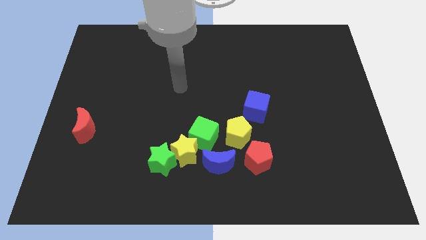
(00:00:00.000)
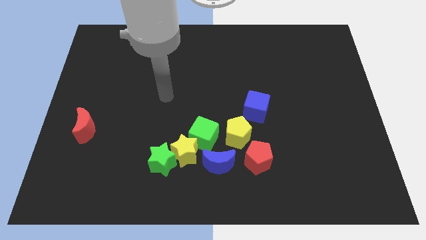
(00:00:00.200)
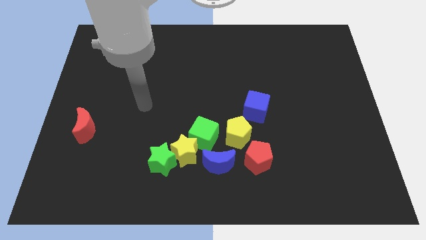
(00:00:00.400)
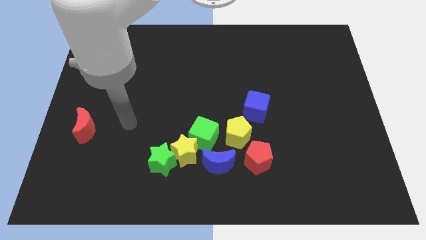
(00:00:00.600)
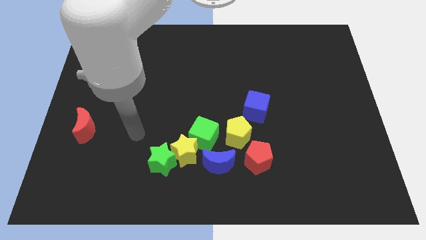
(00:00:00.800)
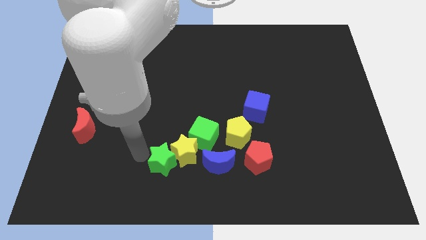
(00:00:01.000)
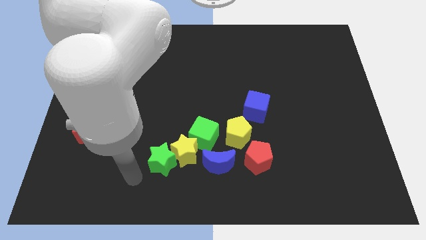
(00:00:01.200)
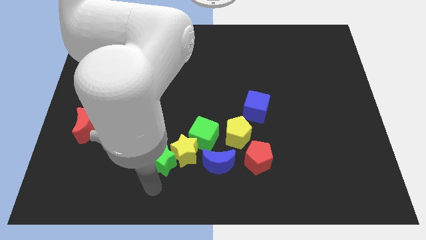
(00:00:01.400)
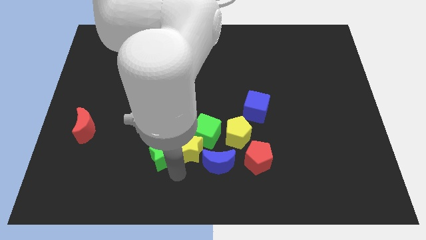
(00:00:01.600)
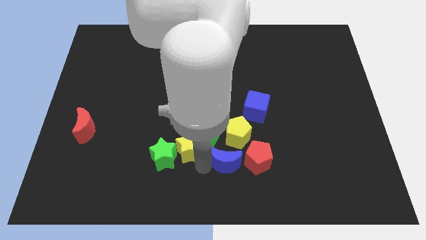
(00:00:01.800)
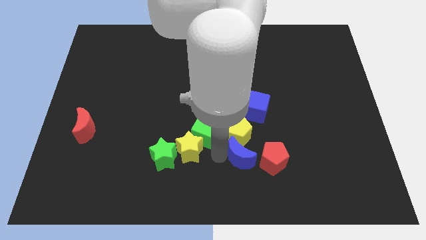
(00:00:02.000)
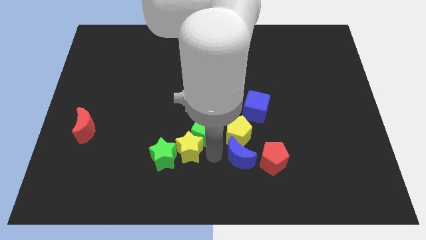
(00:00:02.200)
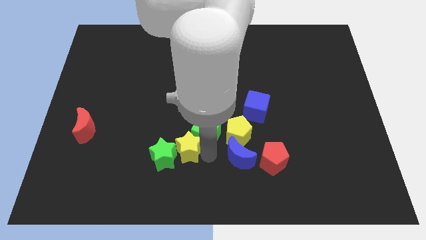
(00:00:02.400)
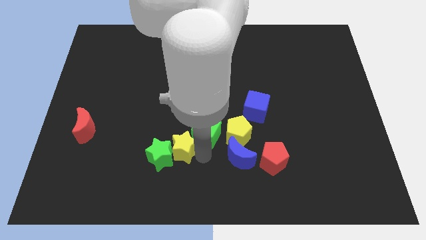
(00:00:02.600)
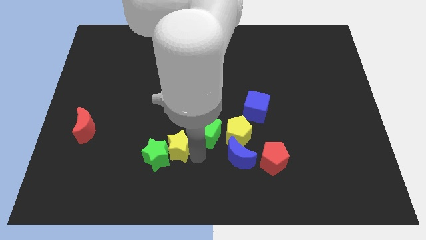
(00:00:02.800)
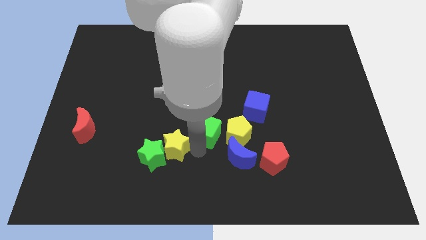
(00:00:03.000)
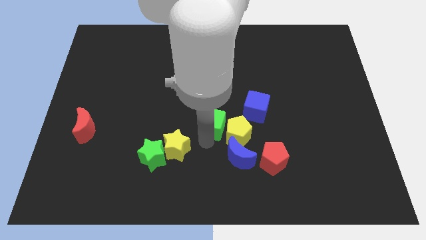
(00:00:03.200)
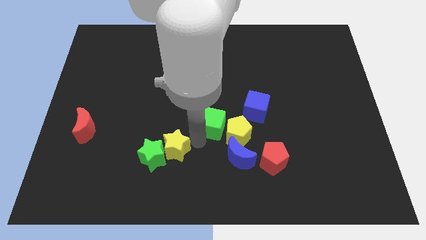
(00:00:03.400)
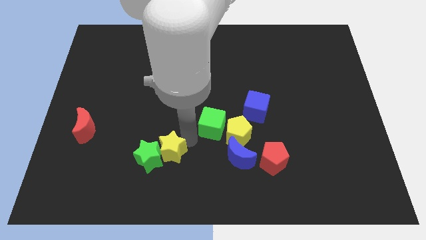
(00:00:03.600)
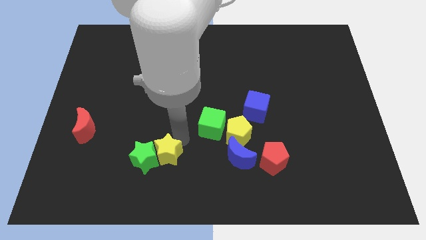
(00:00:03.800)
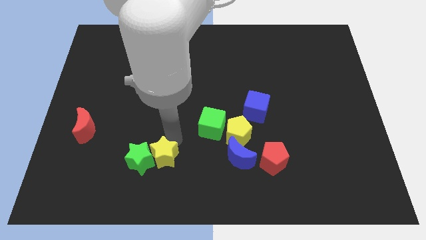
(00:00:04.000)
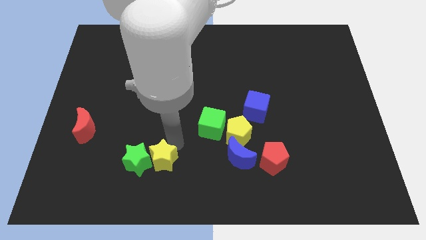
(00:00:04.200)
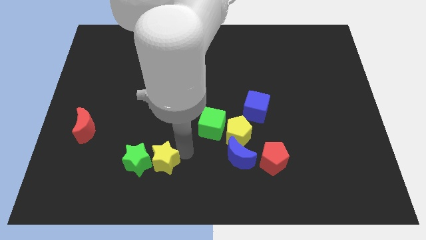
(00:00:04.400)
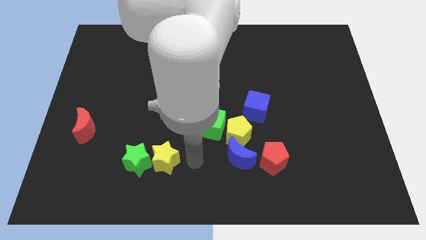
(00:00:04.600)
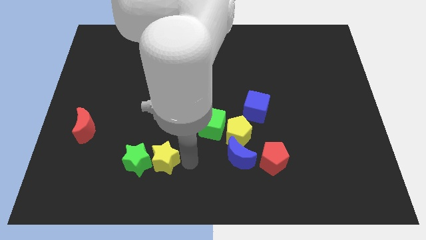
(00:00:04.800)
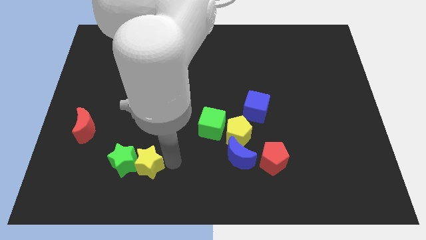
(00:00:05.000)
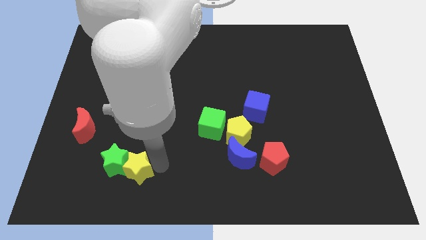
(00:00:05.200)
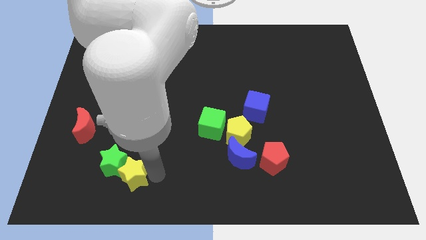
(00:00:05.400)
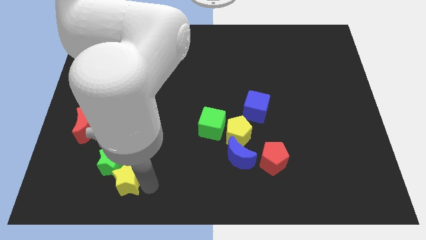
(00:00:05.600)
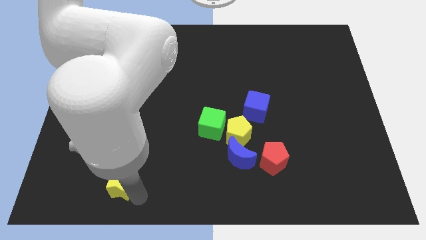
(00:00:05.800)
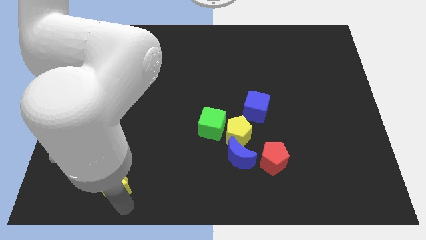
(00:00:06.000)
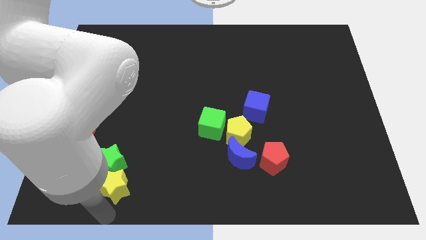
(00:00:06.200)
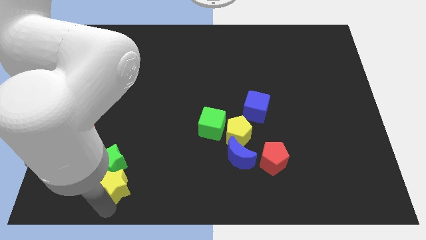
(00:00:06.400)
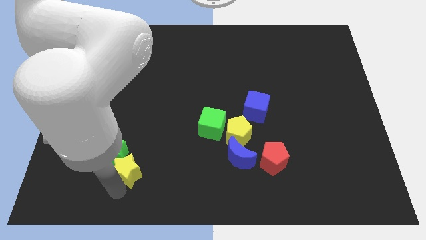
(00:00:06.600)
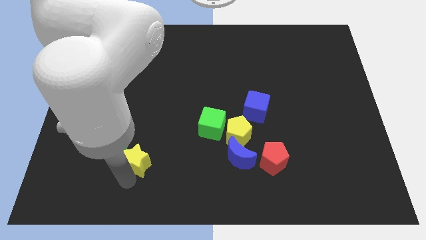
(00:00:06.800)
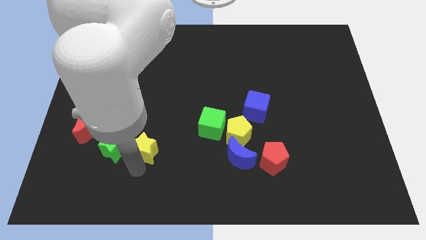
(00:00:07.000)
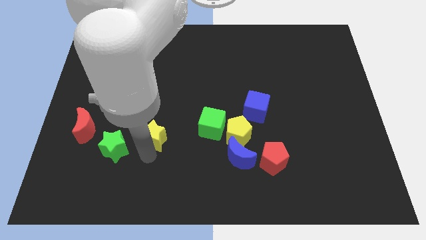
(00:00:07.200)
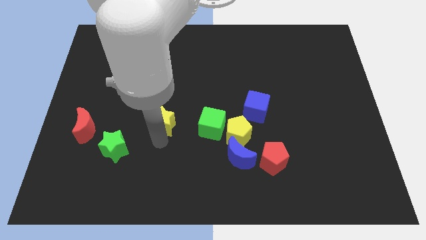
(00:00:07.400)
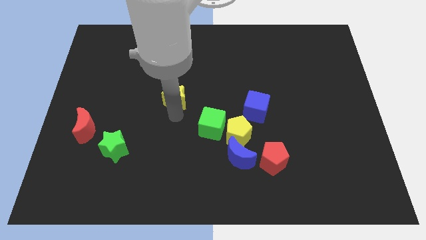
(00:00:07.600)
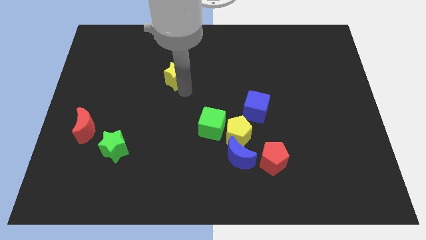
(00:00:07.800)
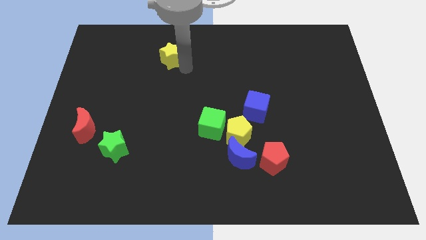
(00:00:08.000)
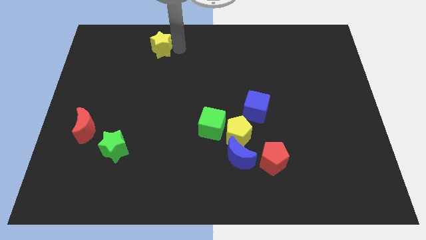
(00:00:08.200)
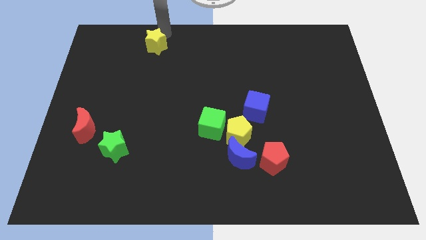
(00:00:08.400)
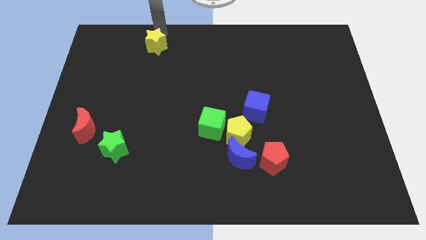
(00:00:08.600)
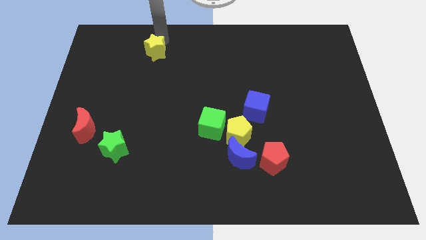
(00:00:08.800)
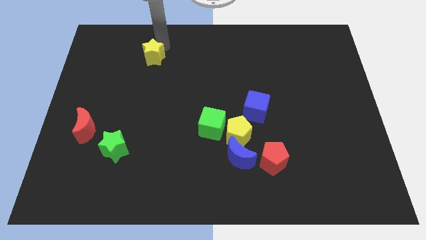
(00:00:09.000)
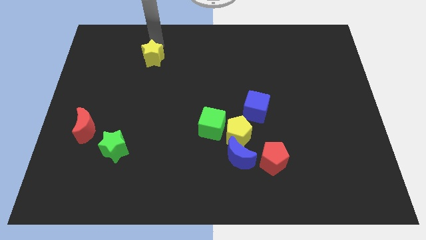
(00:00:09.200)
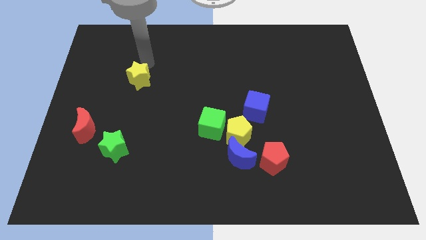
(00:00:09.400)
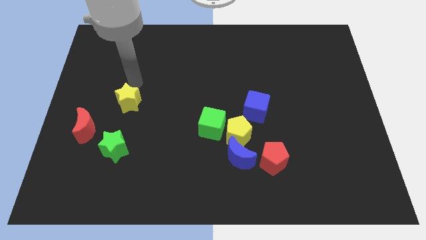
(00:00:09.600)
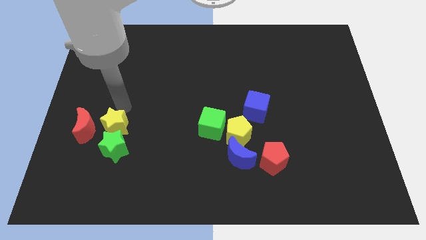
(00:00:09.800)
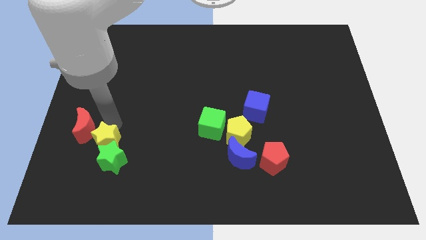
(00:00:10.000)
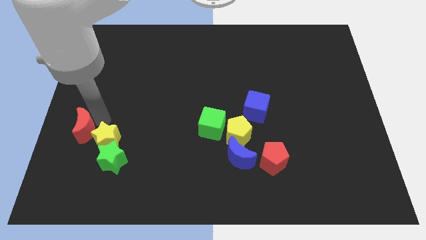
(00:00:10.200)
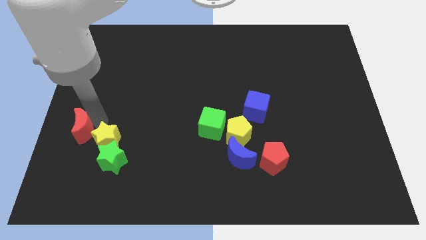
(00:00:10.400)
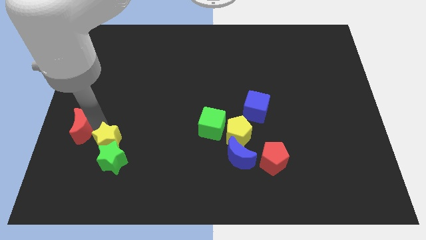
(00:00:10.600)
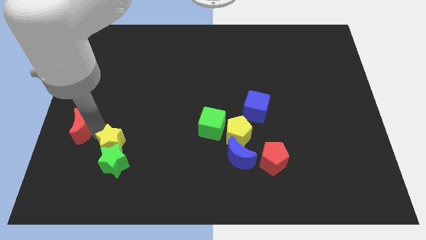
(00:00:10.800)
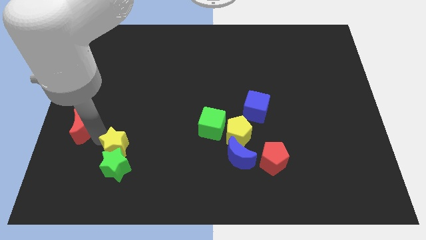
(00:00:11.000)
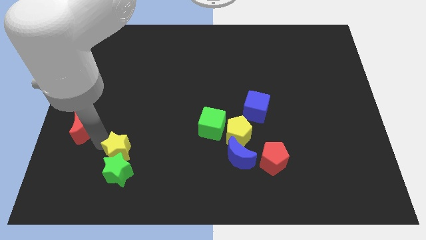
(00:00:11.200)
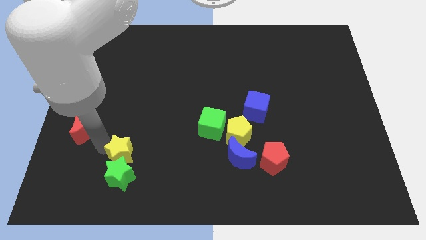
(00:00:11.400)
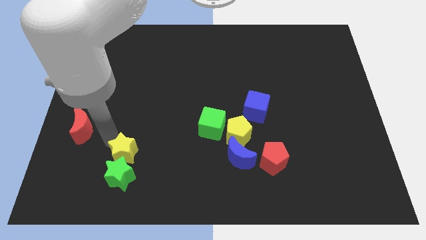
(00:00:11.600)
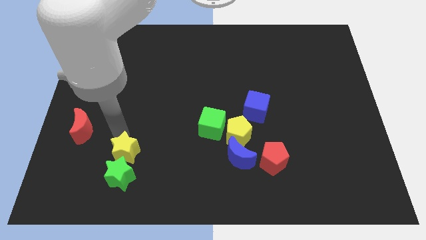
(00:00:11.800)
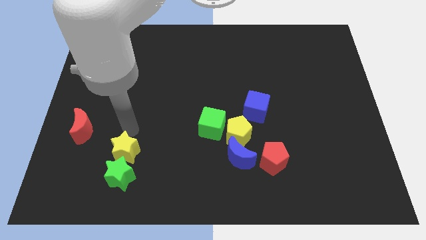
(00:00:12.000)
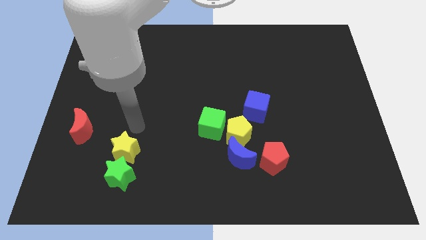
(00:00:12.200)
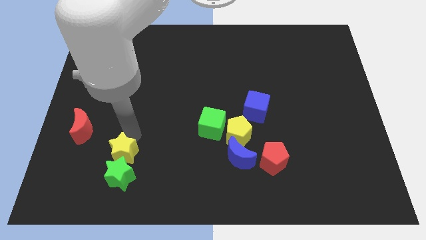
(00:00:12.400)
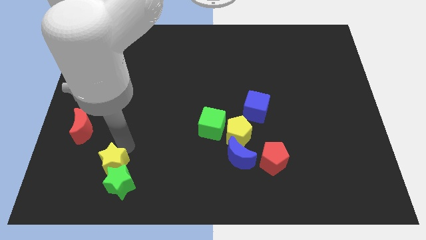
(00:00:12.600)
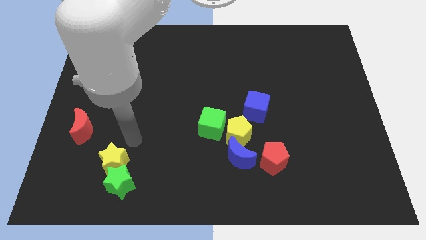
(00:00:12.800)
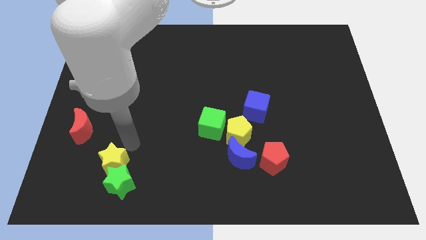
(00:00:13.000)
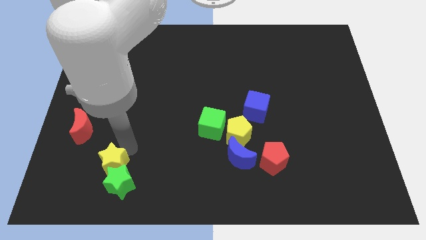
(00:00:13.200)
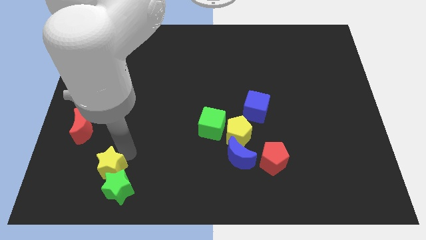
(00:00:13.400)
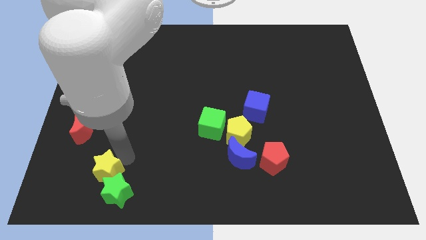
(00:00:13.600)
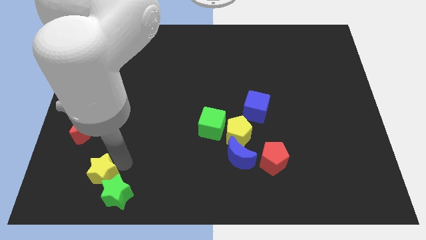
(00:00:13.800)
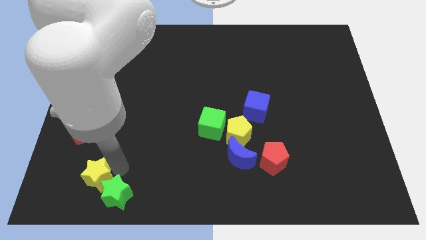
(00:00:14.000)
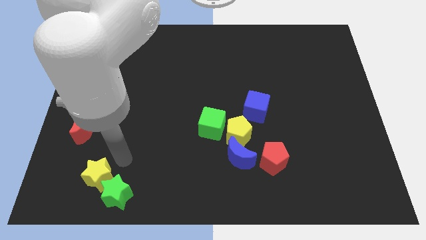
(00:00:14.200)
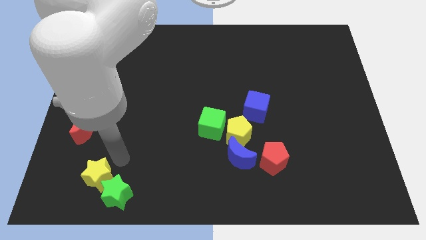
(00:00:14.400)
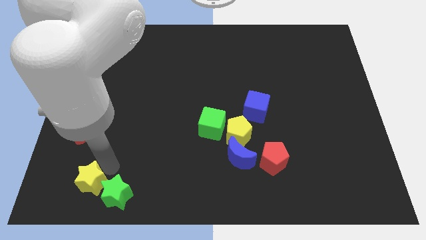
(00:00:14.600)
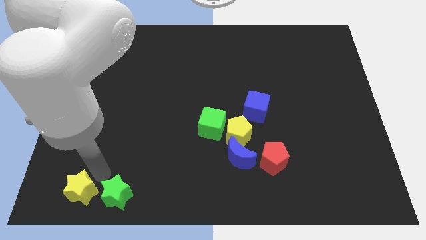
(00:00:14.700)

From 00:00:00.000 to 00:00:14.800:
push the yellow star to the bottom left of the board
